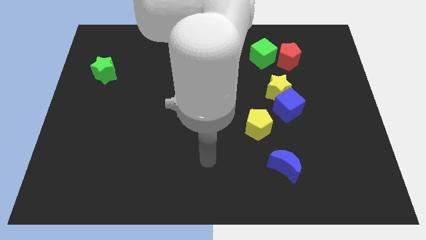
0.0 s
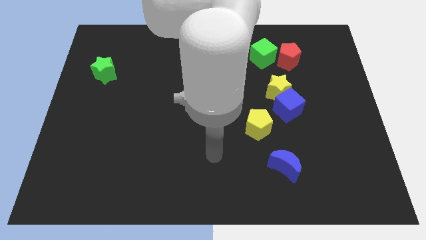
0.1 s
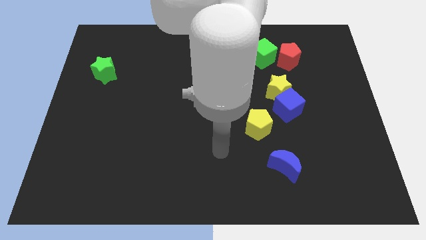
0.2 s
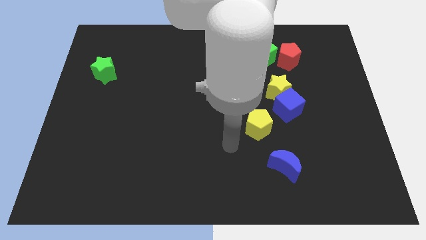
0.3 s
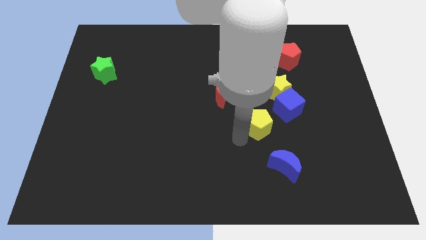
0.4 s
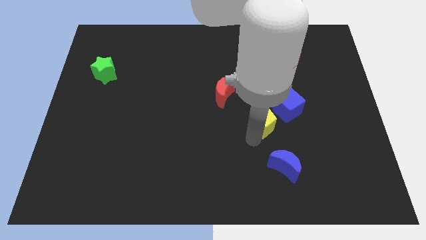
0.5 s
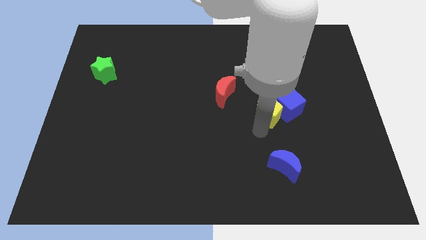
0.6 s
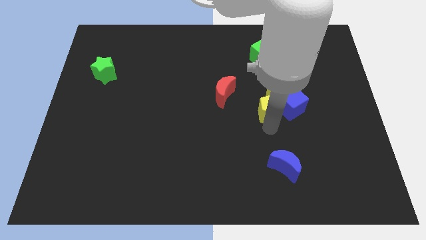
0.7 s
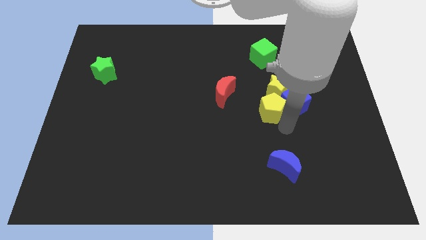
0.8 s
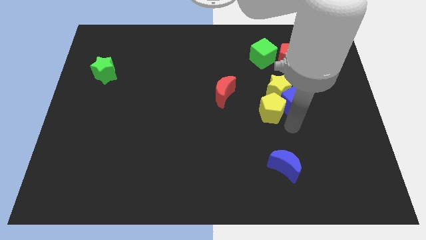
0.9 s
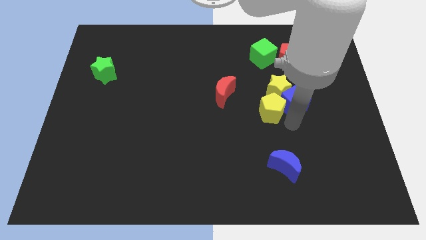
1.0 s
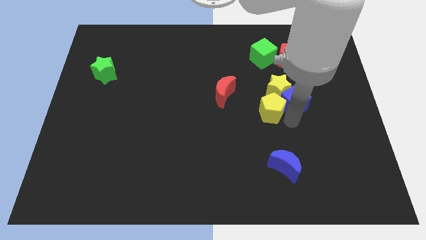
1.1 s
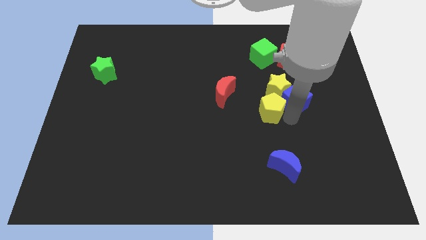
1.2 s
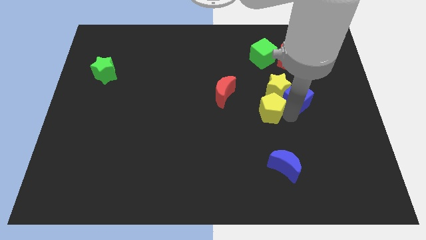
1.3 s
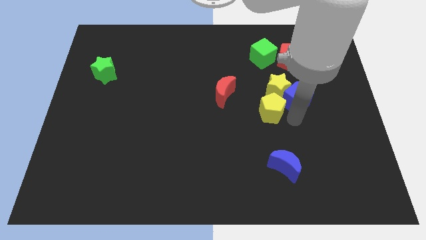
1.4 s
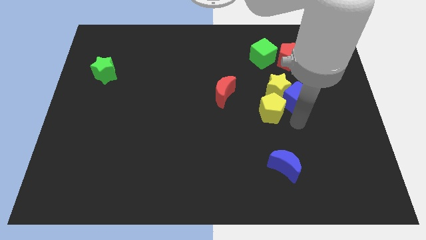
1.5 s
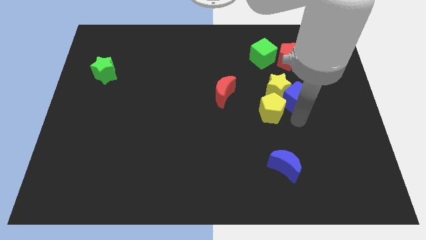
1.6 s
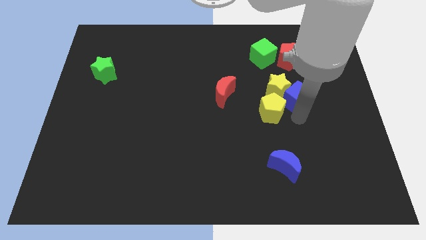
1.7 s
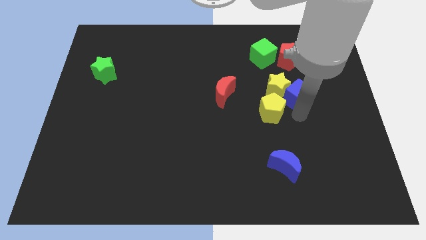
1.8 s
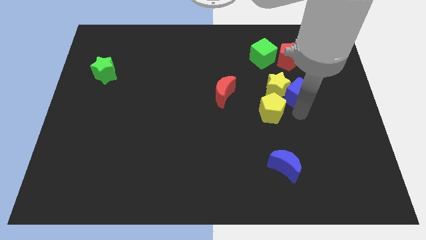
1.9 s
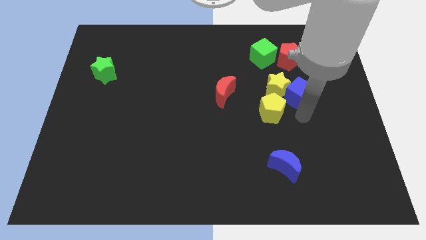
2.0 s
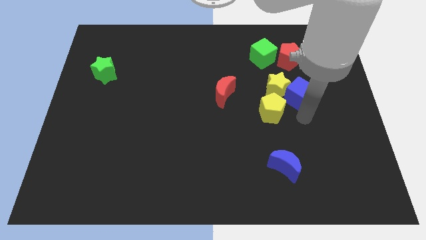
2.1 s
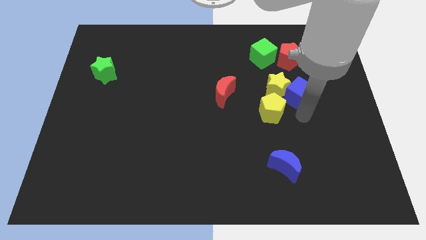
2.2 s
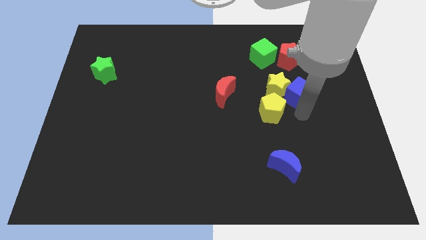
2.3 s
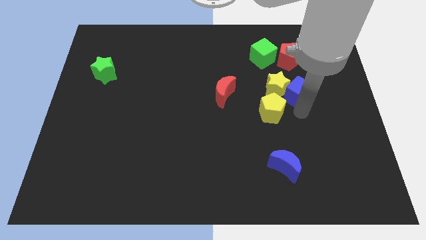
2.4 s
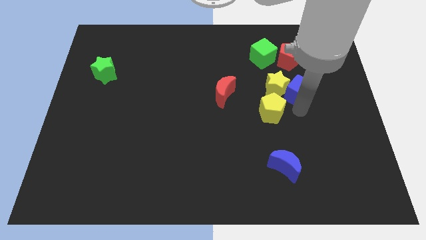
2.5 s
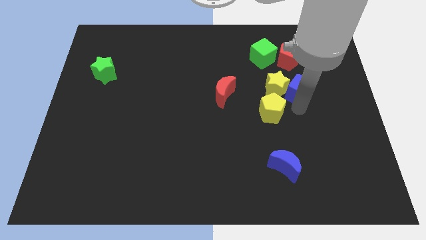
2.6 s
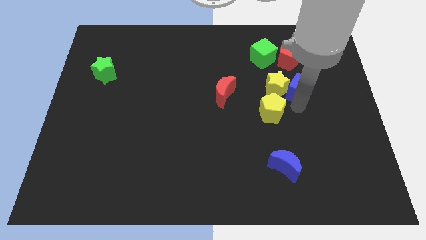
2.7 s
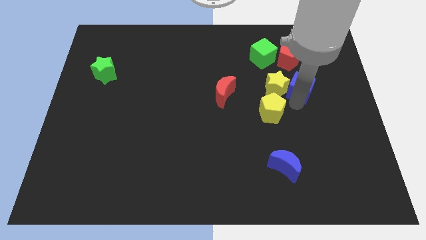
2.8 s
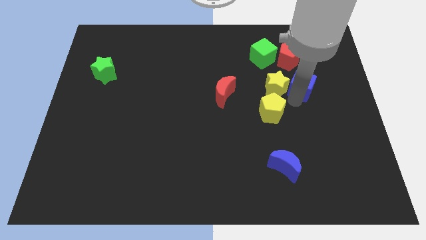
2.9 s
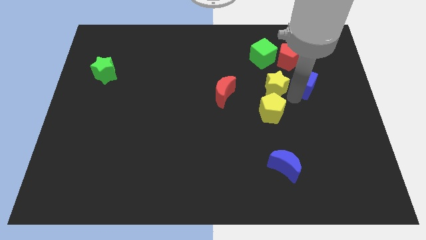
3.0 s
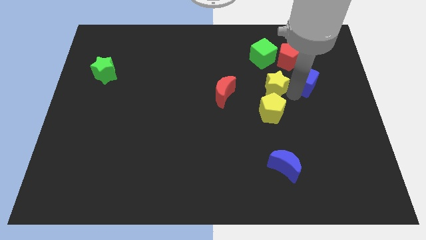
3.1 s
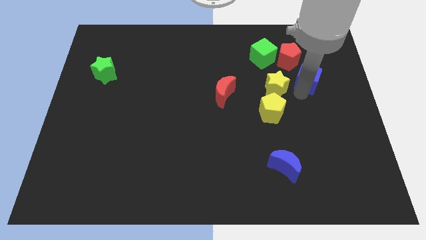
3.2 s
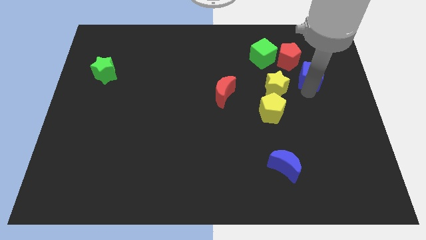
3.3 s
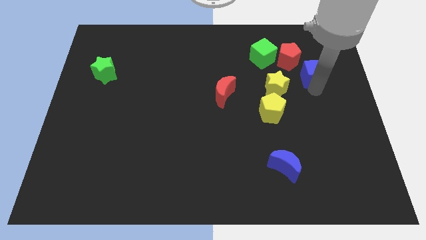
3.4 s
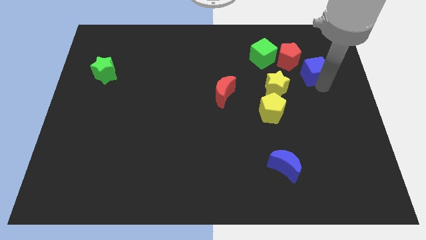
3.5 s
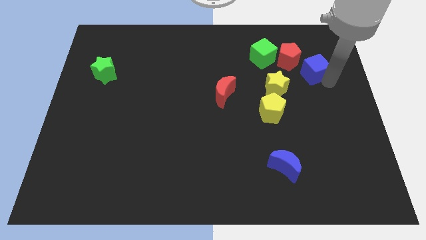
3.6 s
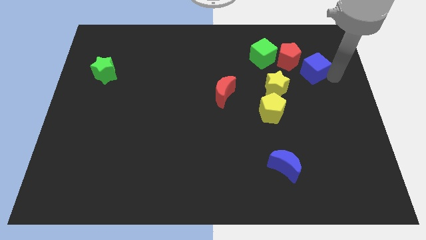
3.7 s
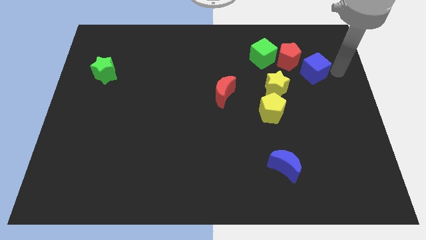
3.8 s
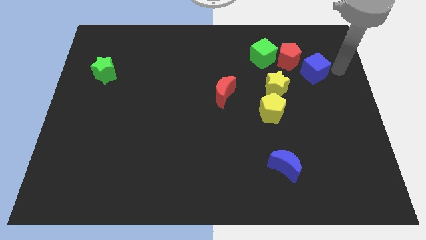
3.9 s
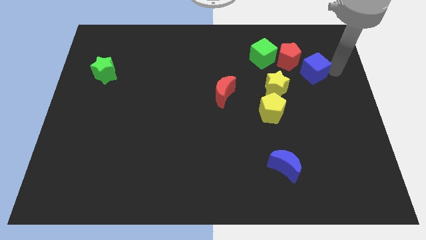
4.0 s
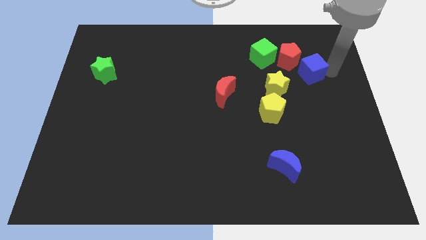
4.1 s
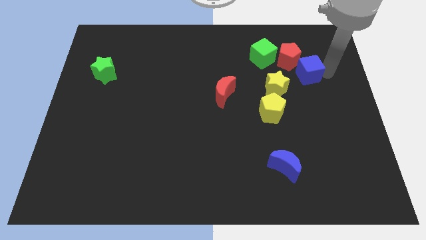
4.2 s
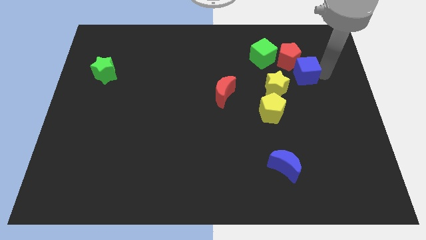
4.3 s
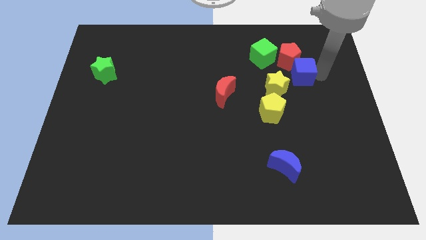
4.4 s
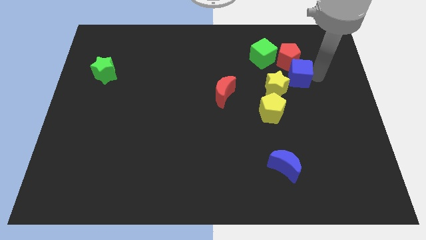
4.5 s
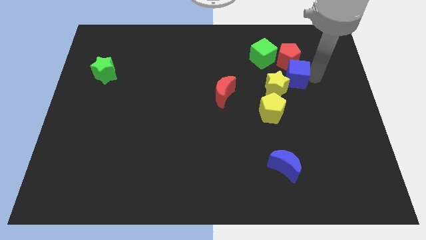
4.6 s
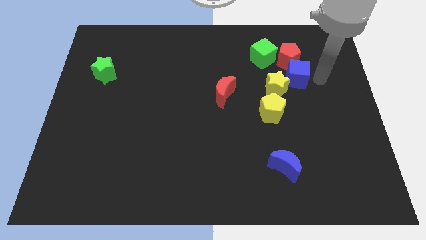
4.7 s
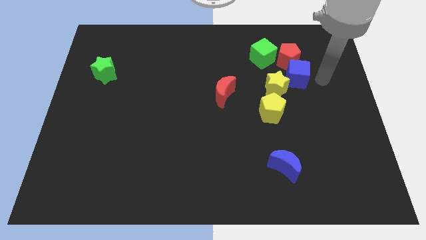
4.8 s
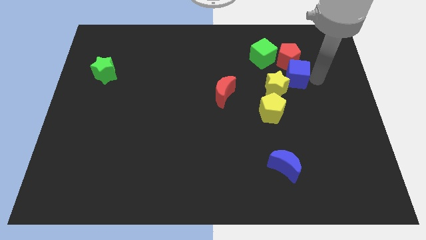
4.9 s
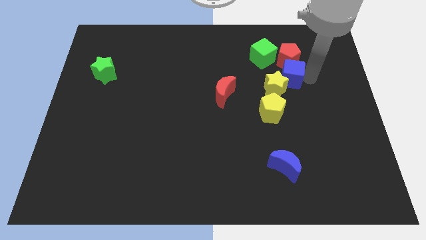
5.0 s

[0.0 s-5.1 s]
put the blue cube to the bottom left of the red pentagon
